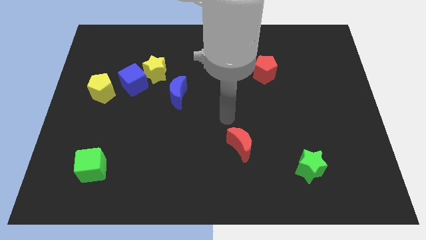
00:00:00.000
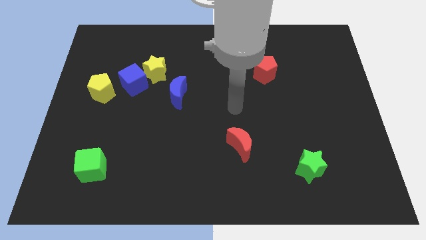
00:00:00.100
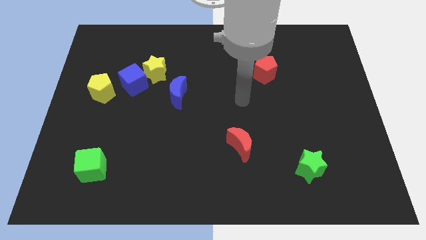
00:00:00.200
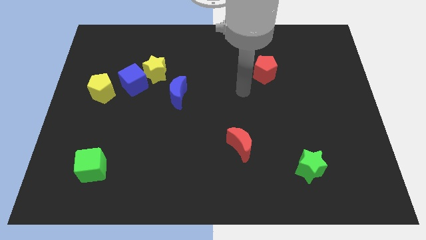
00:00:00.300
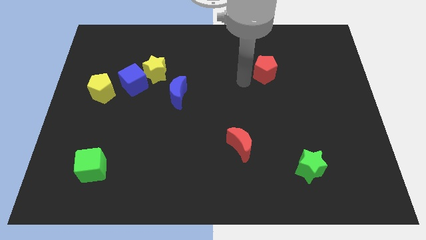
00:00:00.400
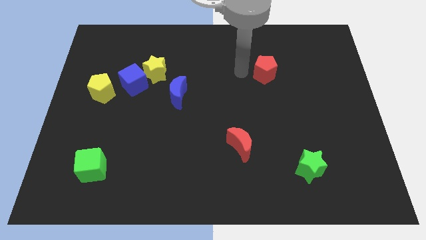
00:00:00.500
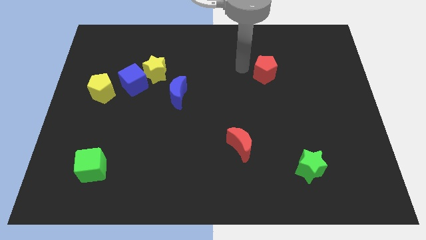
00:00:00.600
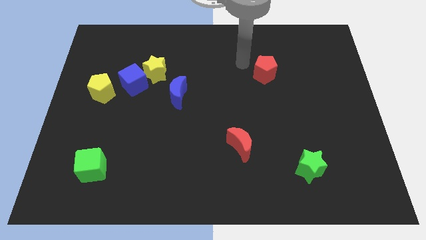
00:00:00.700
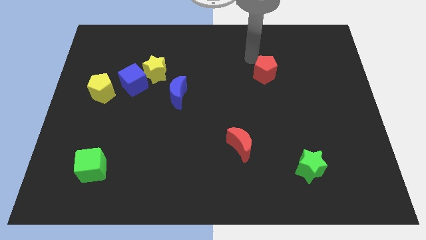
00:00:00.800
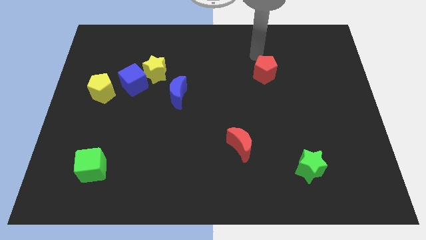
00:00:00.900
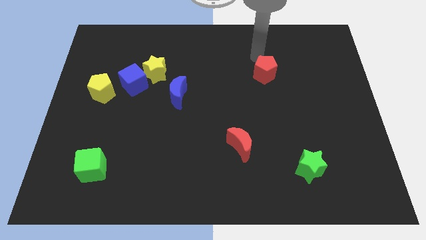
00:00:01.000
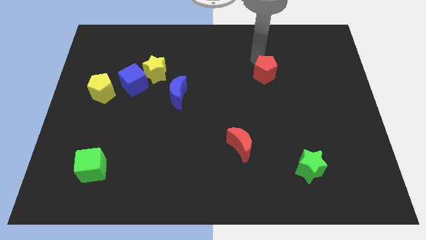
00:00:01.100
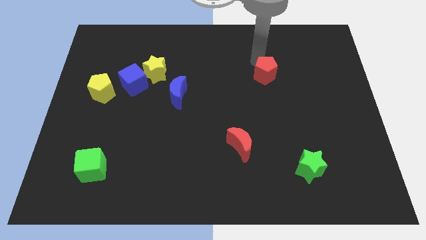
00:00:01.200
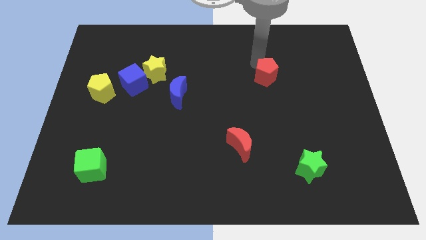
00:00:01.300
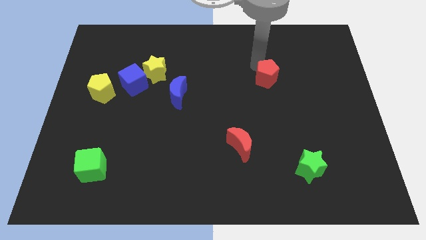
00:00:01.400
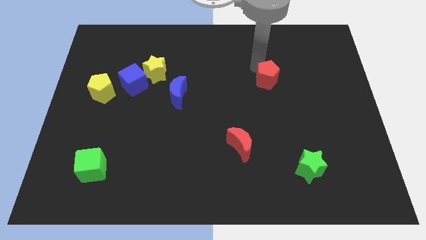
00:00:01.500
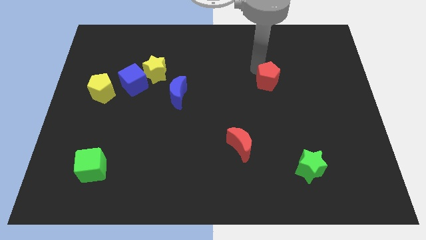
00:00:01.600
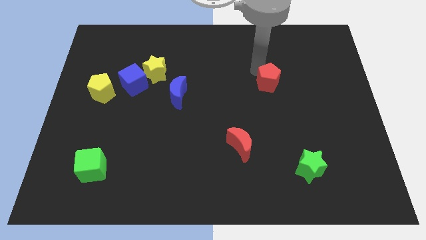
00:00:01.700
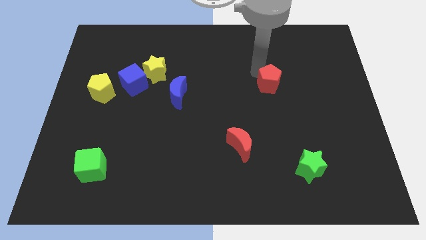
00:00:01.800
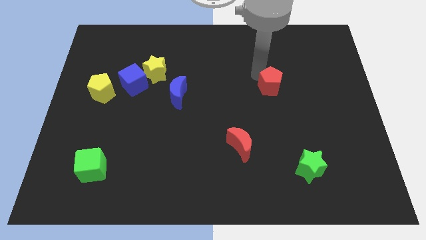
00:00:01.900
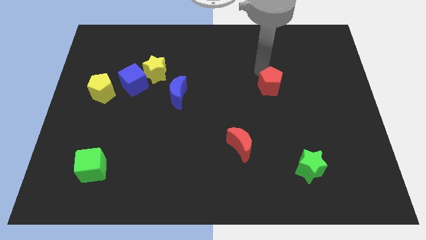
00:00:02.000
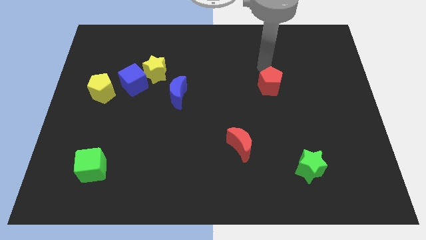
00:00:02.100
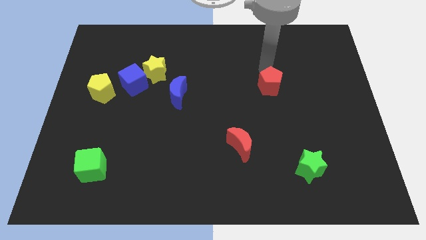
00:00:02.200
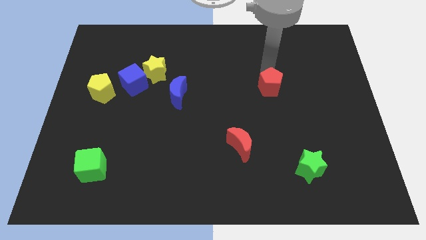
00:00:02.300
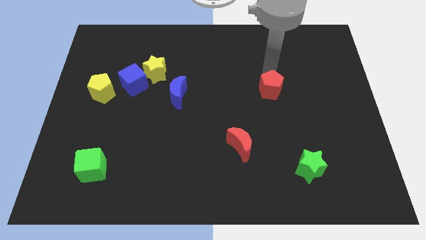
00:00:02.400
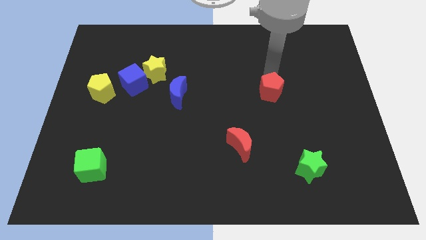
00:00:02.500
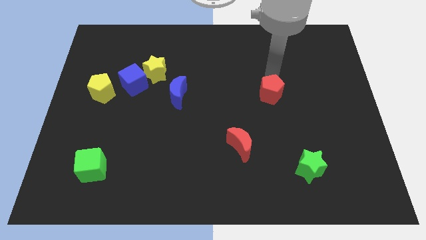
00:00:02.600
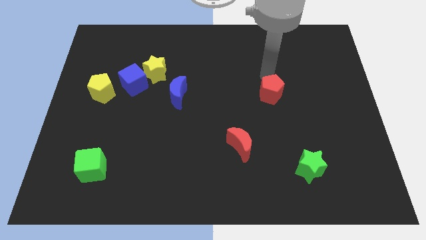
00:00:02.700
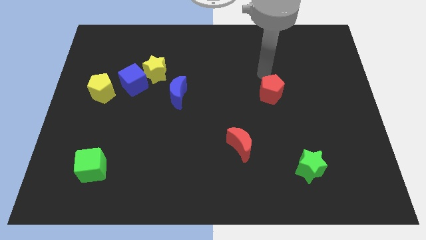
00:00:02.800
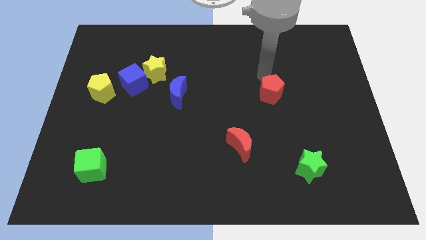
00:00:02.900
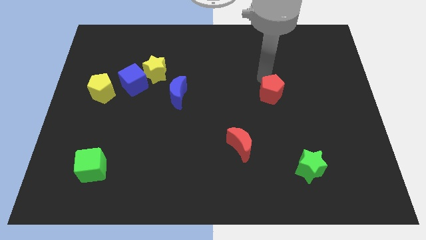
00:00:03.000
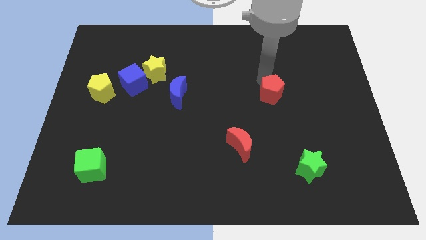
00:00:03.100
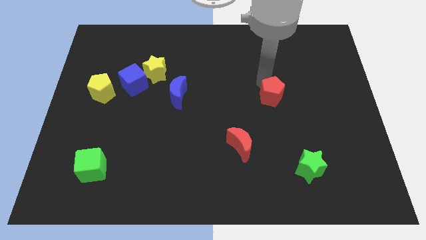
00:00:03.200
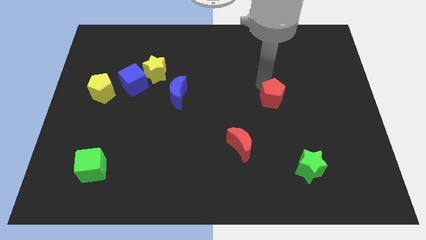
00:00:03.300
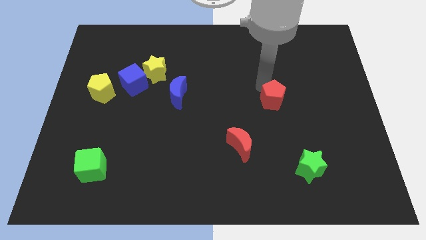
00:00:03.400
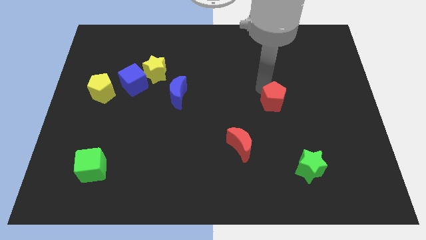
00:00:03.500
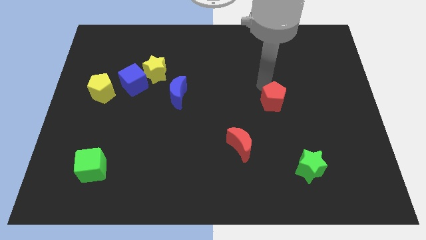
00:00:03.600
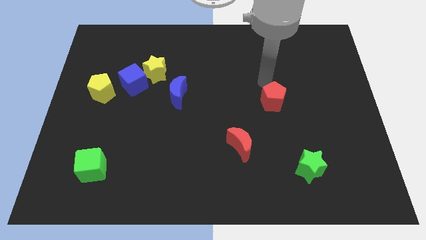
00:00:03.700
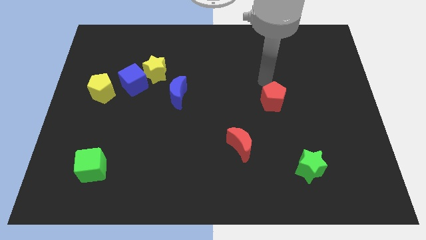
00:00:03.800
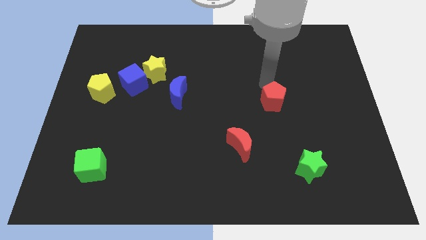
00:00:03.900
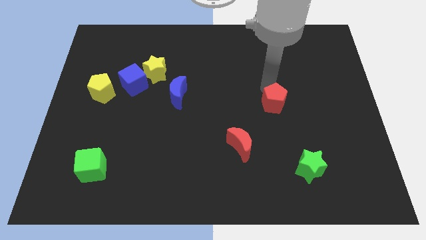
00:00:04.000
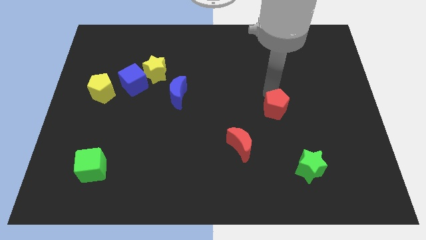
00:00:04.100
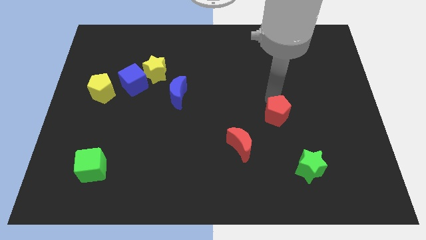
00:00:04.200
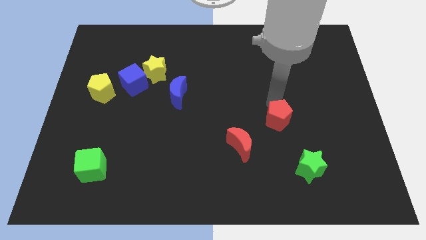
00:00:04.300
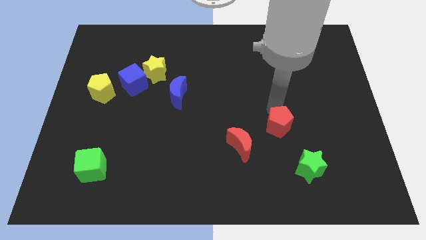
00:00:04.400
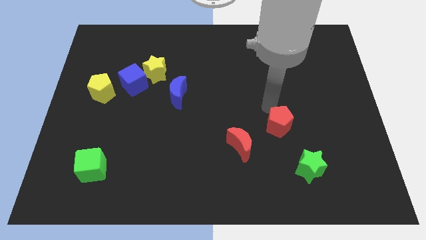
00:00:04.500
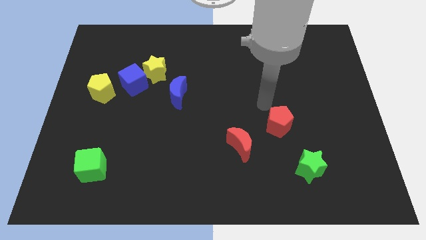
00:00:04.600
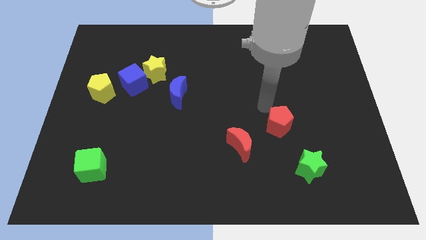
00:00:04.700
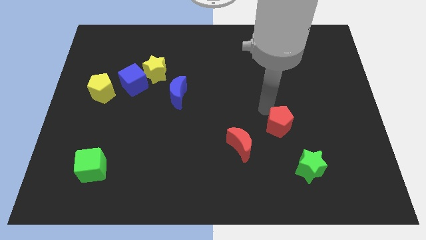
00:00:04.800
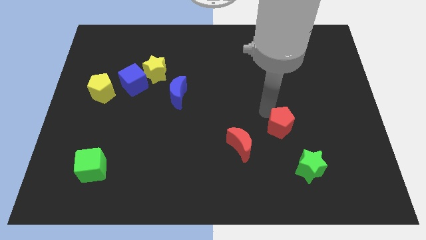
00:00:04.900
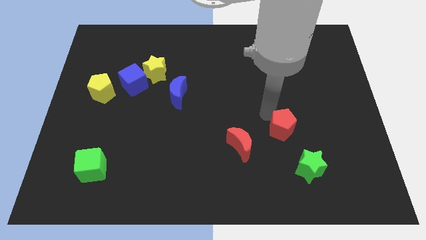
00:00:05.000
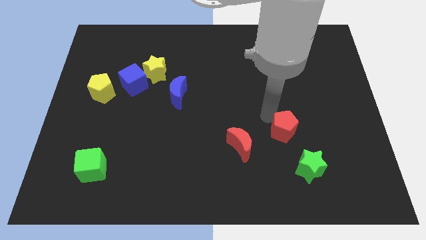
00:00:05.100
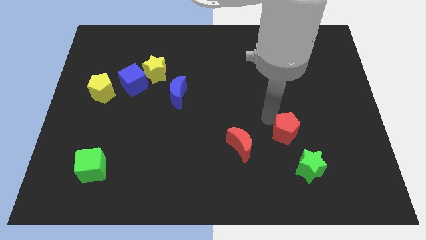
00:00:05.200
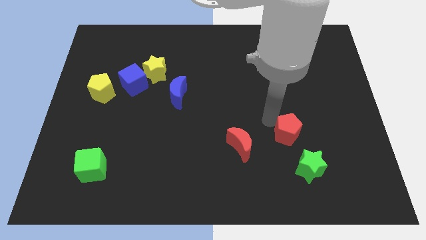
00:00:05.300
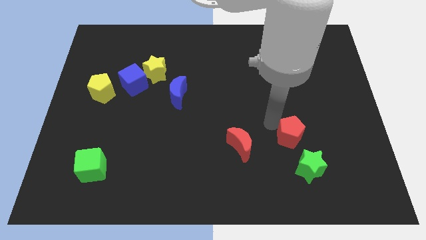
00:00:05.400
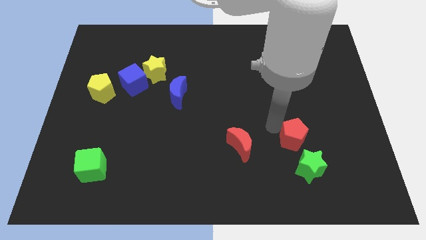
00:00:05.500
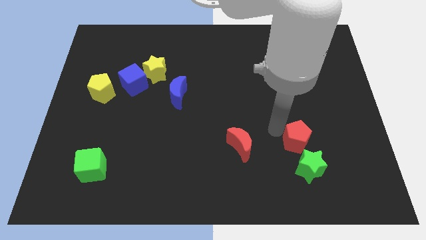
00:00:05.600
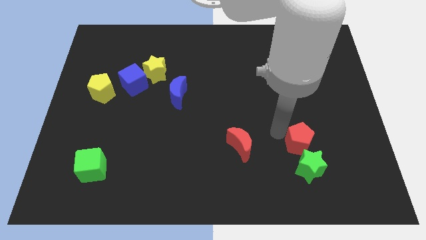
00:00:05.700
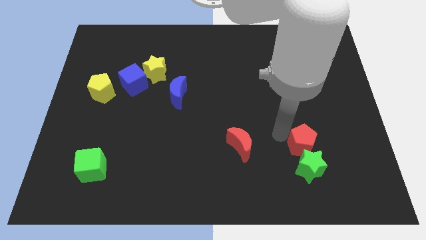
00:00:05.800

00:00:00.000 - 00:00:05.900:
push the red pentagon to the green star

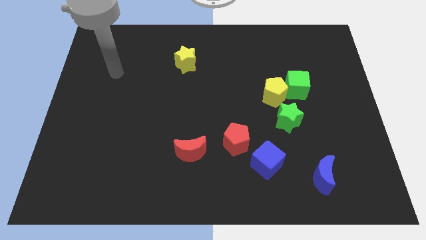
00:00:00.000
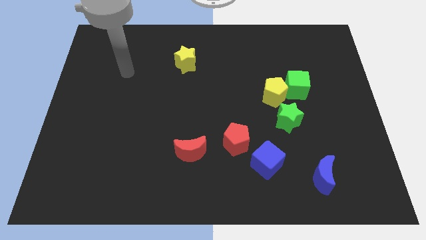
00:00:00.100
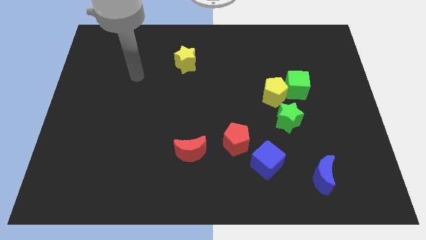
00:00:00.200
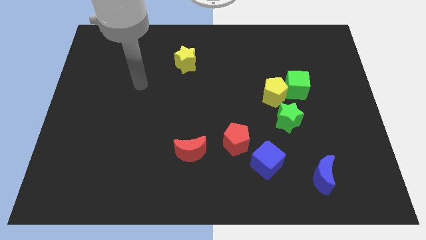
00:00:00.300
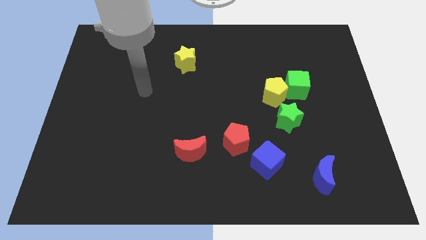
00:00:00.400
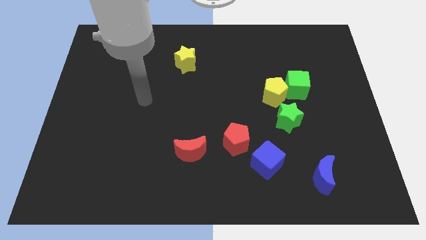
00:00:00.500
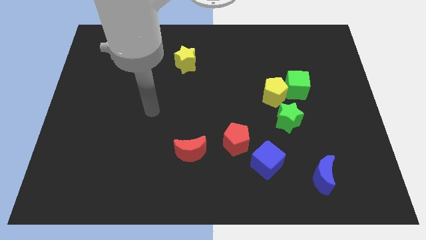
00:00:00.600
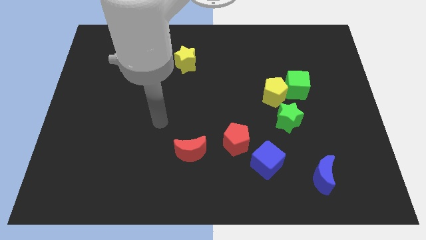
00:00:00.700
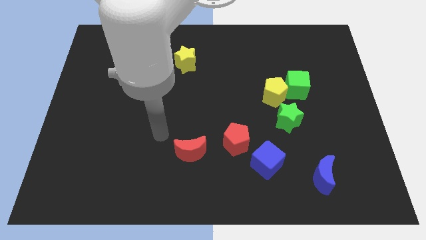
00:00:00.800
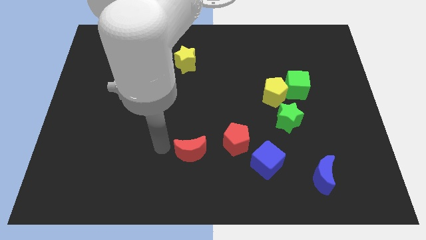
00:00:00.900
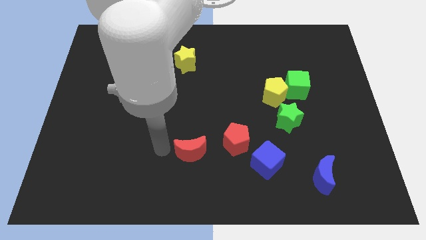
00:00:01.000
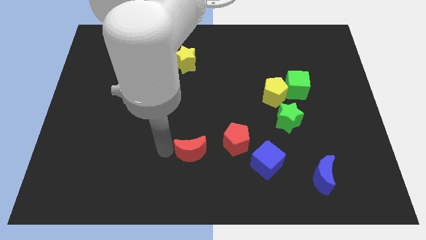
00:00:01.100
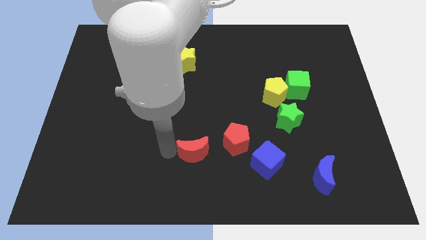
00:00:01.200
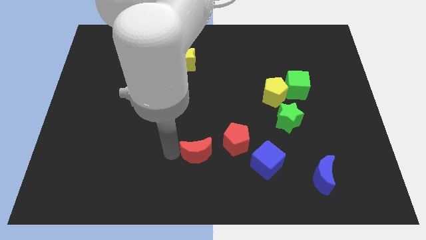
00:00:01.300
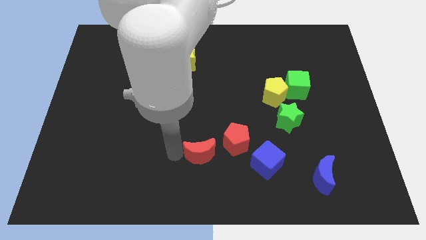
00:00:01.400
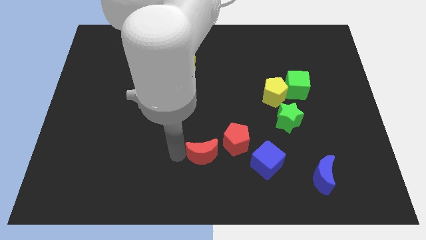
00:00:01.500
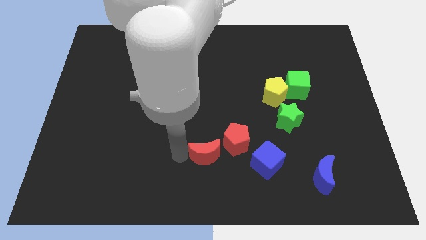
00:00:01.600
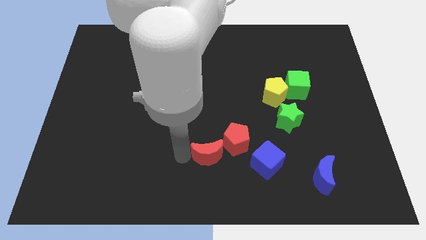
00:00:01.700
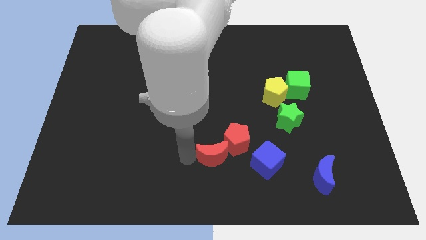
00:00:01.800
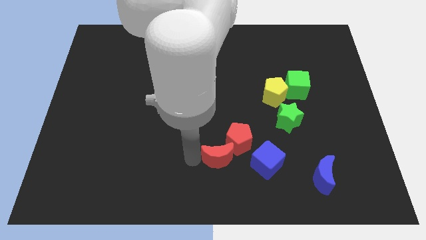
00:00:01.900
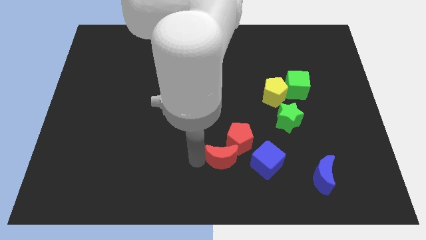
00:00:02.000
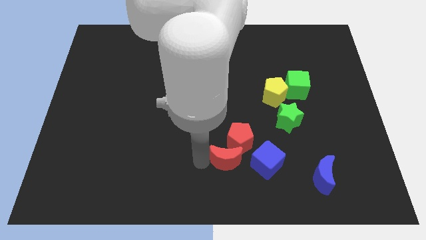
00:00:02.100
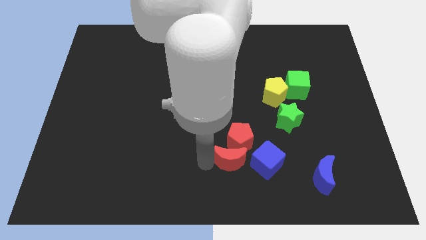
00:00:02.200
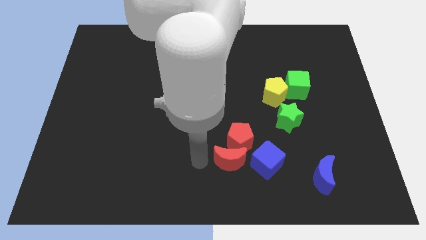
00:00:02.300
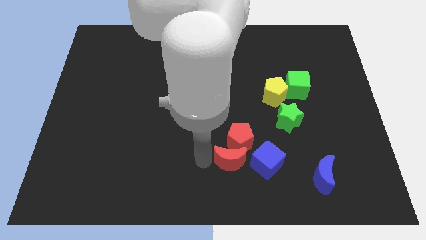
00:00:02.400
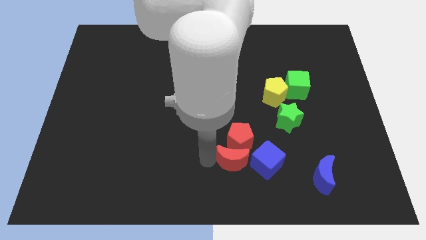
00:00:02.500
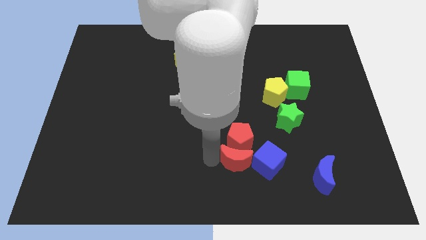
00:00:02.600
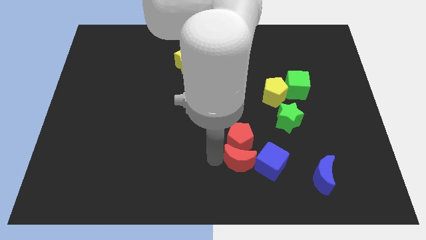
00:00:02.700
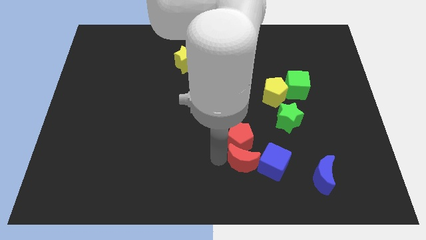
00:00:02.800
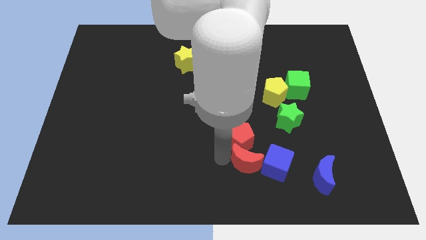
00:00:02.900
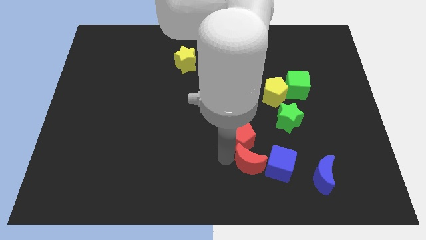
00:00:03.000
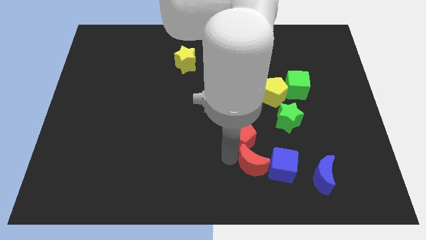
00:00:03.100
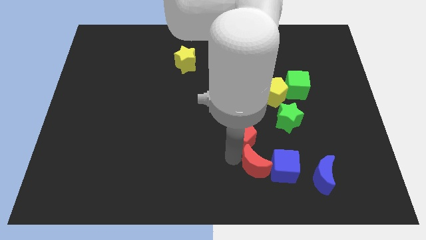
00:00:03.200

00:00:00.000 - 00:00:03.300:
push the red moon close to the blue cube
